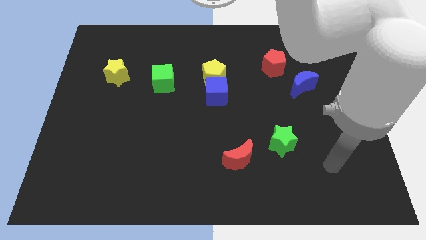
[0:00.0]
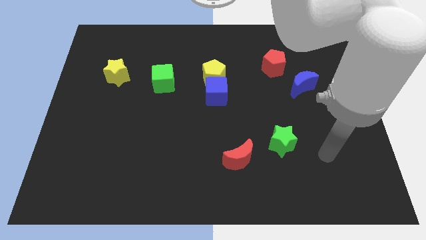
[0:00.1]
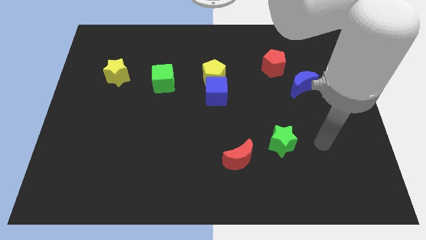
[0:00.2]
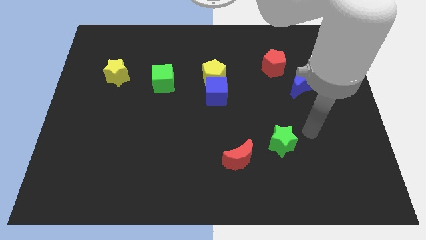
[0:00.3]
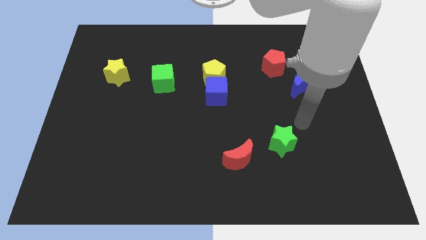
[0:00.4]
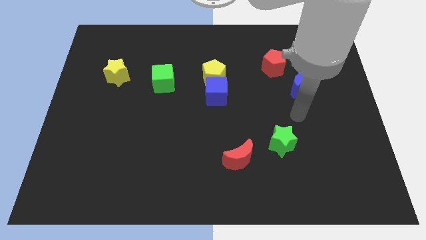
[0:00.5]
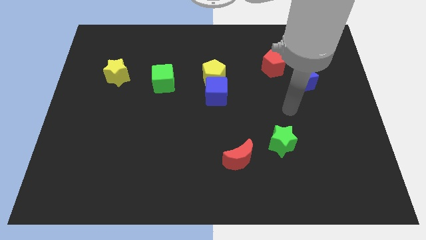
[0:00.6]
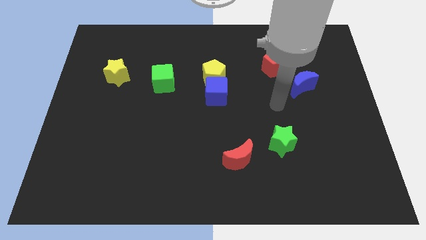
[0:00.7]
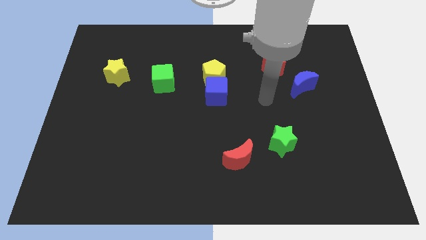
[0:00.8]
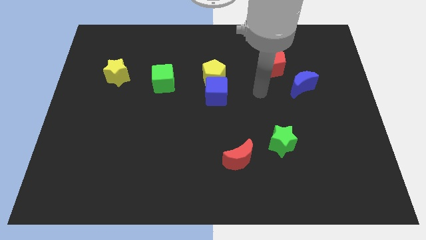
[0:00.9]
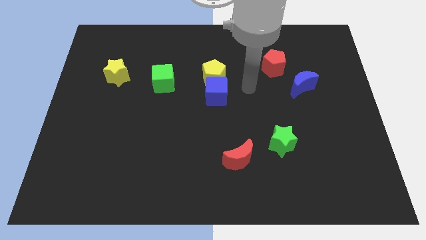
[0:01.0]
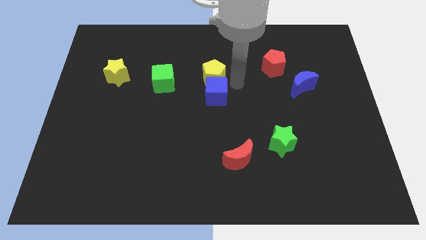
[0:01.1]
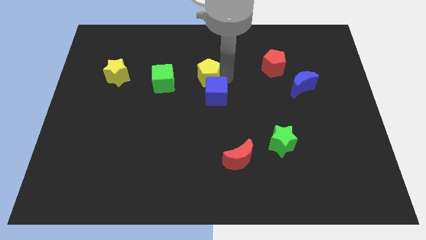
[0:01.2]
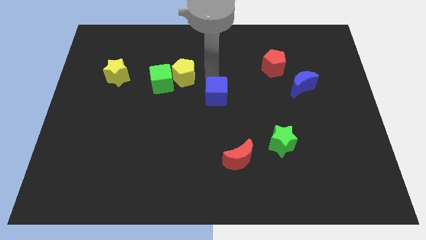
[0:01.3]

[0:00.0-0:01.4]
pull the blue cube apart from the yellow pentagon

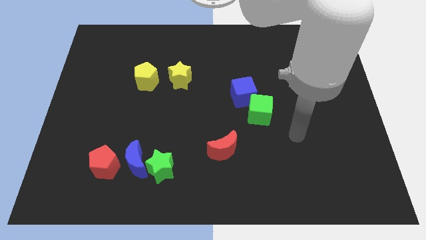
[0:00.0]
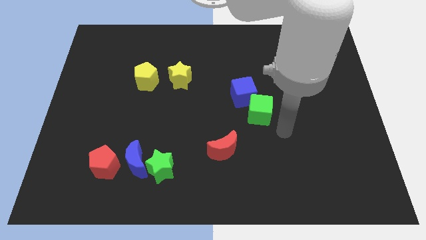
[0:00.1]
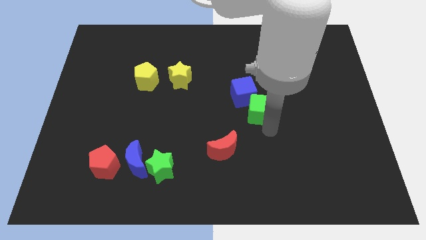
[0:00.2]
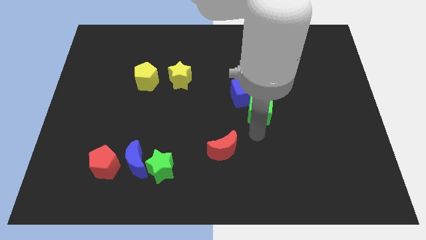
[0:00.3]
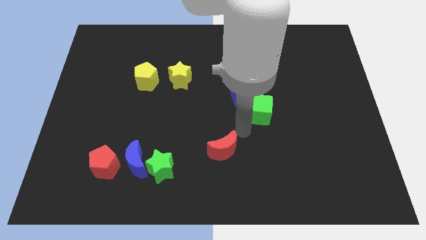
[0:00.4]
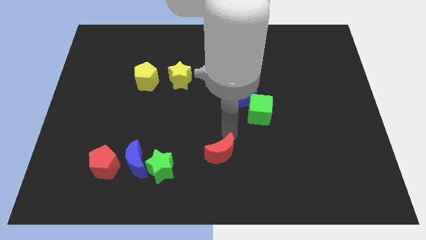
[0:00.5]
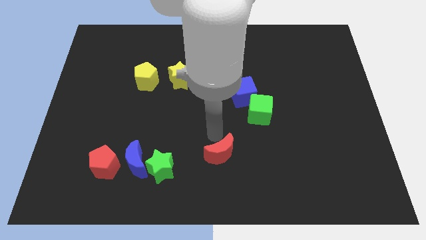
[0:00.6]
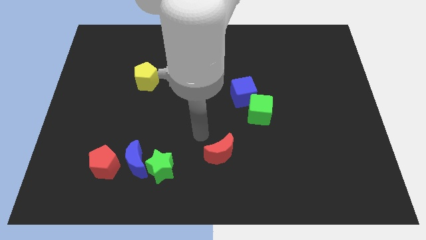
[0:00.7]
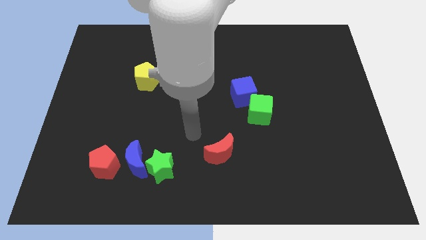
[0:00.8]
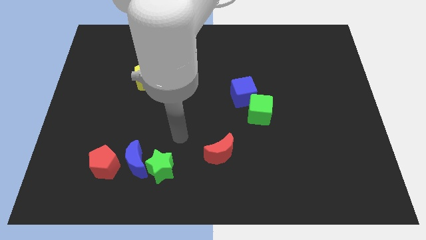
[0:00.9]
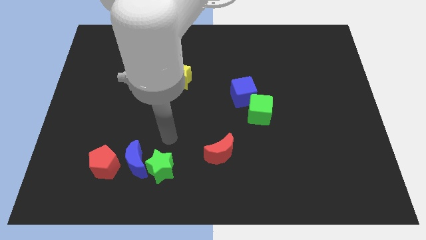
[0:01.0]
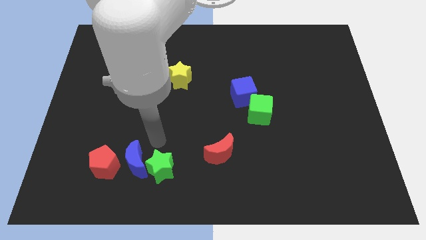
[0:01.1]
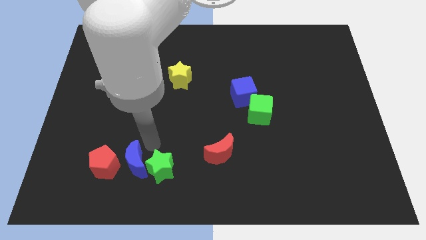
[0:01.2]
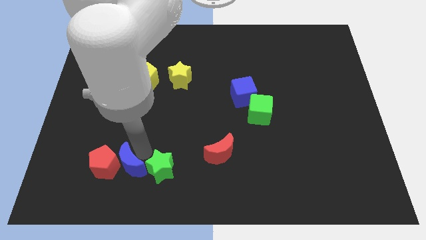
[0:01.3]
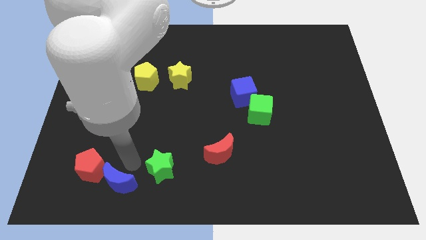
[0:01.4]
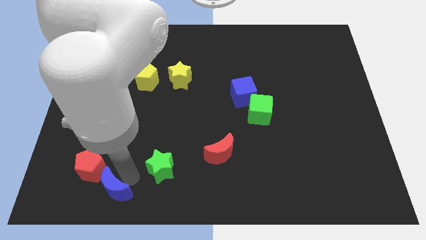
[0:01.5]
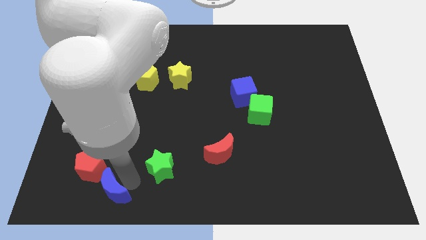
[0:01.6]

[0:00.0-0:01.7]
pull the green star apart from the blue moon

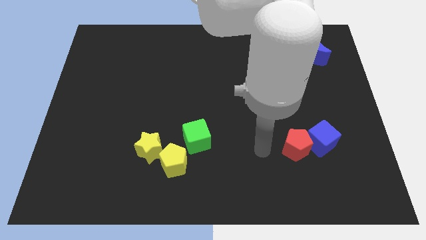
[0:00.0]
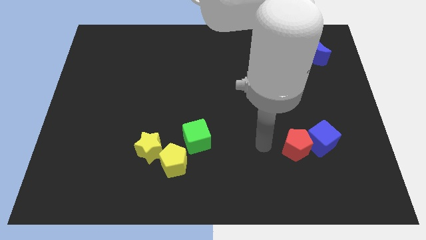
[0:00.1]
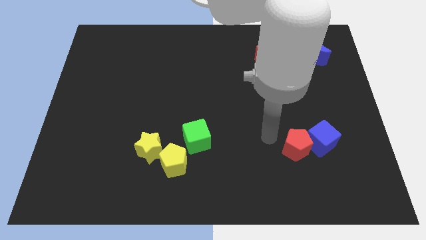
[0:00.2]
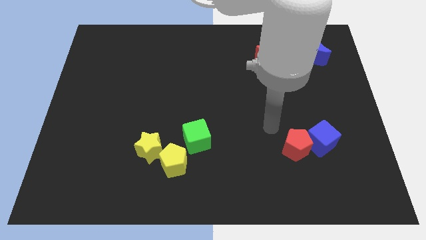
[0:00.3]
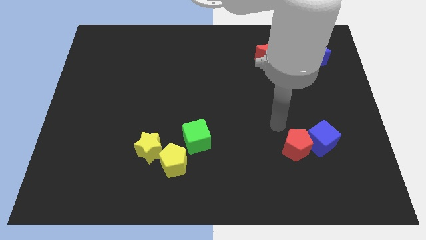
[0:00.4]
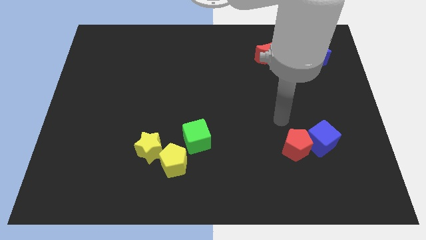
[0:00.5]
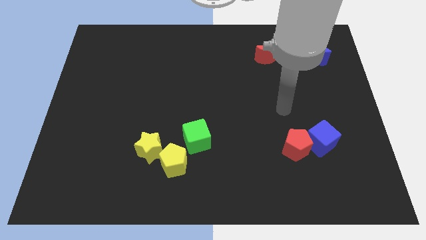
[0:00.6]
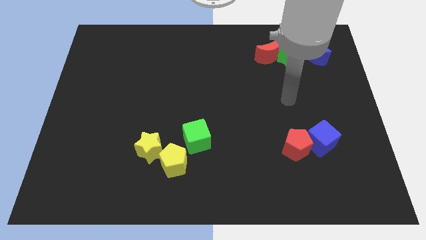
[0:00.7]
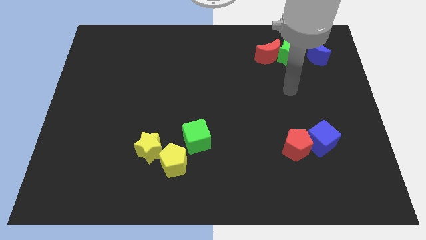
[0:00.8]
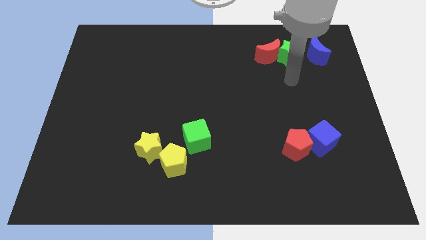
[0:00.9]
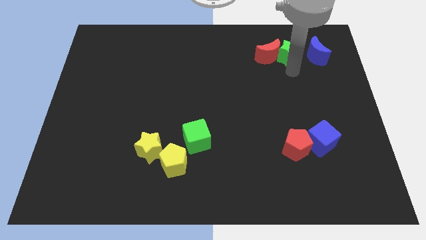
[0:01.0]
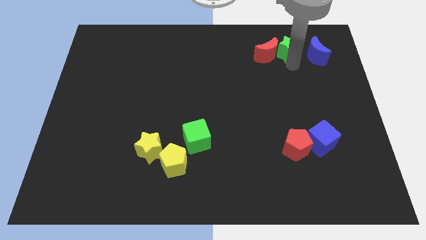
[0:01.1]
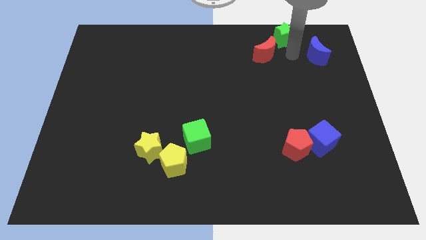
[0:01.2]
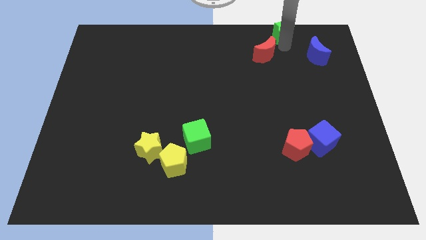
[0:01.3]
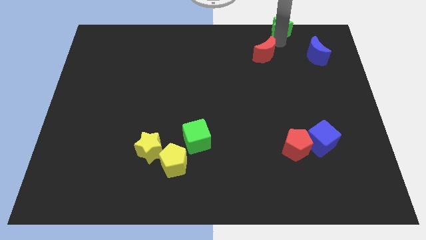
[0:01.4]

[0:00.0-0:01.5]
pull the red moon apart from the green star

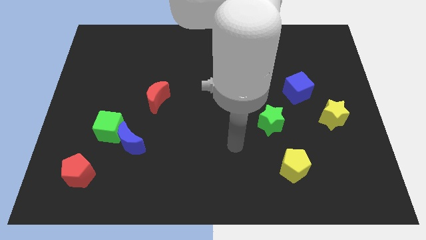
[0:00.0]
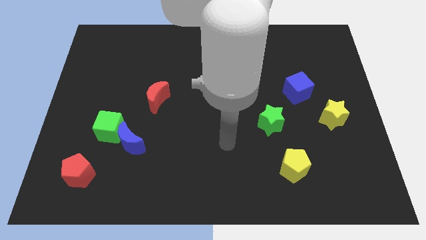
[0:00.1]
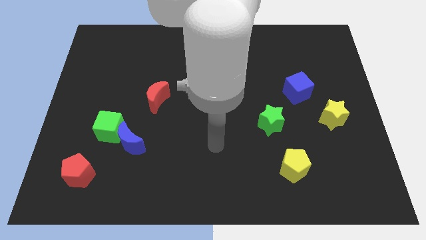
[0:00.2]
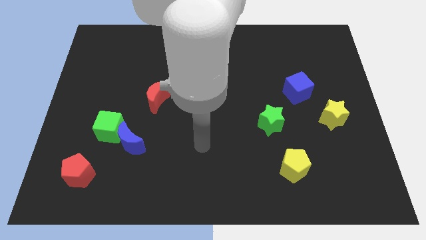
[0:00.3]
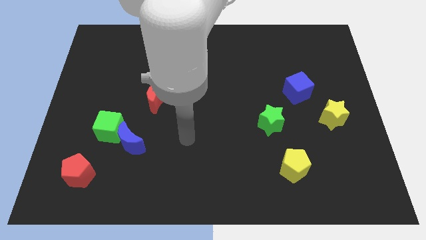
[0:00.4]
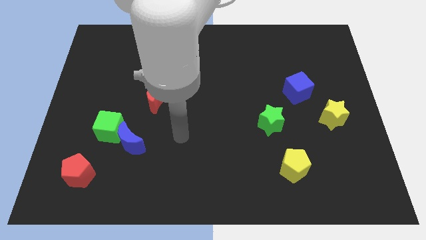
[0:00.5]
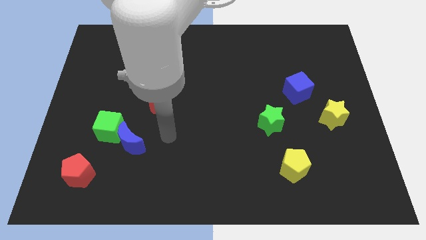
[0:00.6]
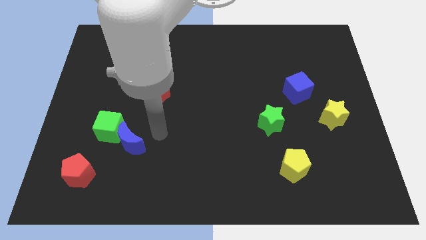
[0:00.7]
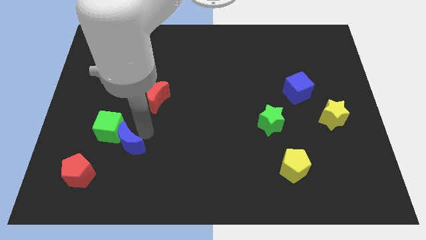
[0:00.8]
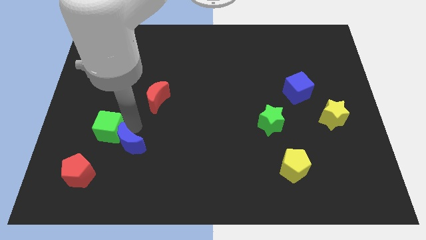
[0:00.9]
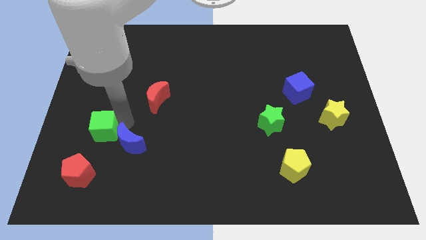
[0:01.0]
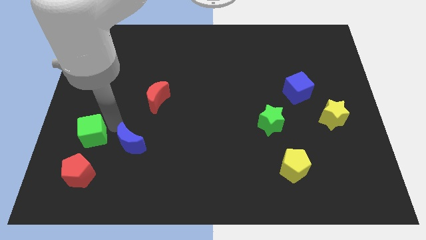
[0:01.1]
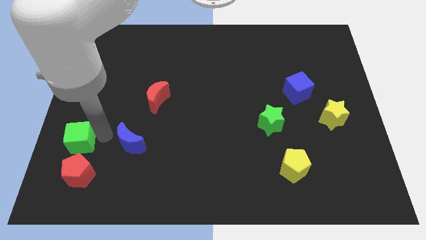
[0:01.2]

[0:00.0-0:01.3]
move the blue moon away from the green cube

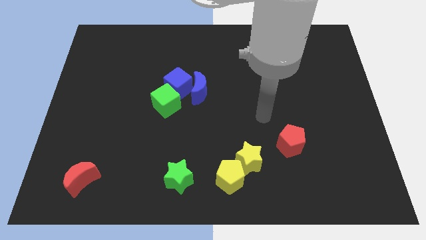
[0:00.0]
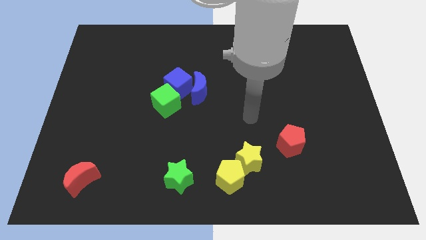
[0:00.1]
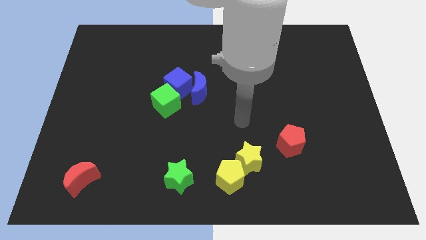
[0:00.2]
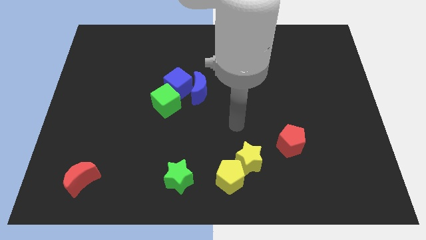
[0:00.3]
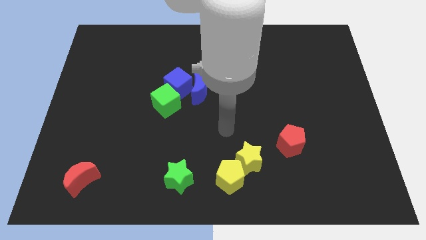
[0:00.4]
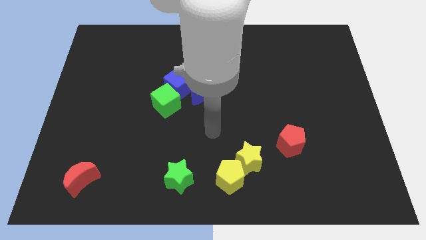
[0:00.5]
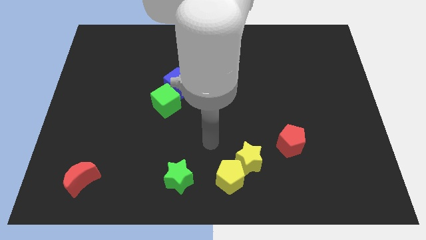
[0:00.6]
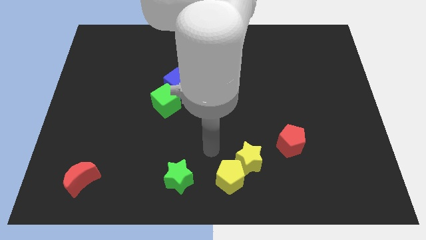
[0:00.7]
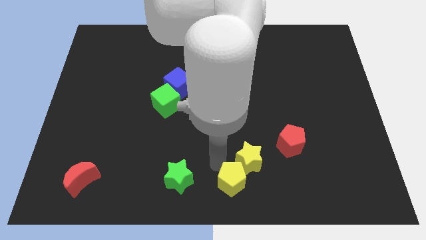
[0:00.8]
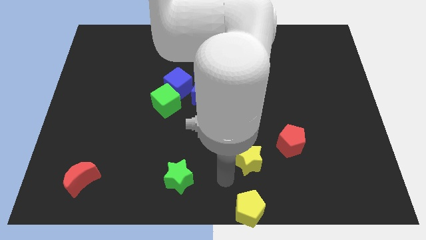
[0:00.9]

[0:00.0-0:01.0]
pull the yellow star apart from the yellow pentagon

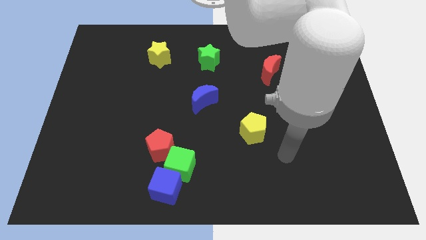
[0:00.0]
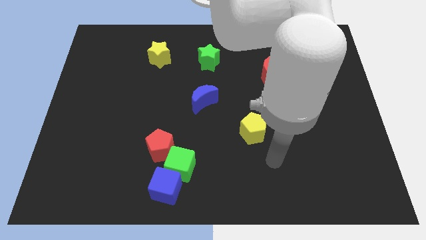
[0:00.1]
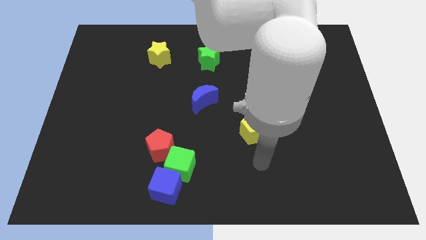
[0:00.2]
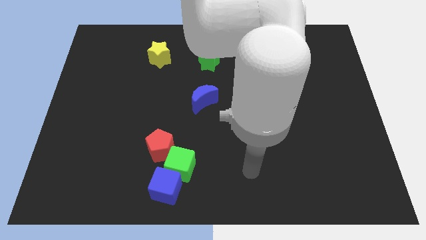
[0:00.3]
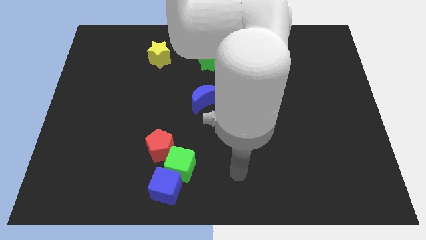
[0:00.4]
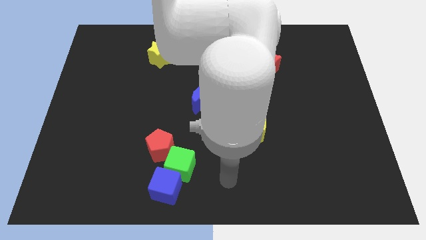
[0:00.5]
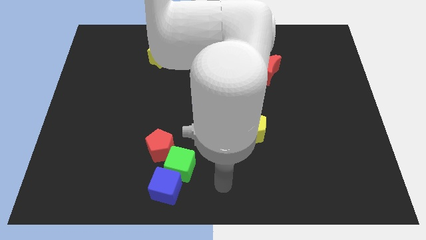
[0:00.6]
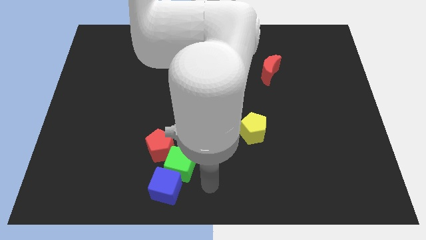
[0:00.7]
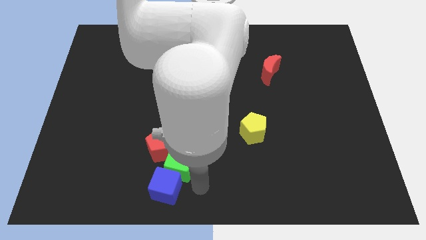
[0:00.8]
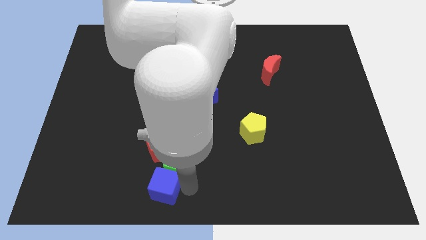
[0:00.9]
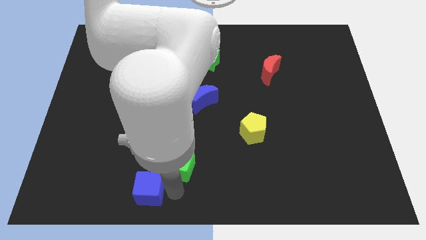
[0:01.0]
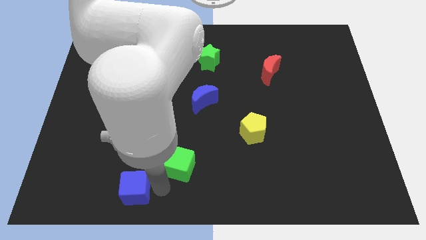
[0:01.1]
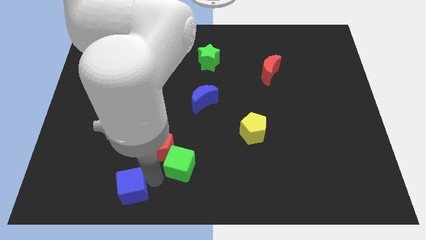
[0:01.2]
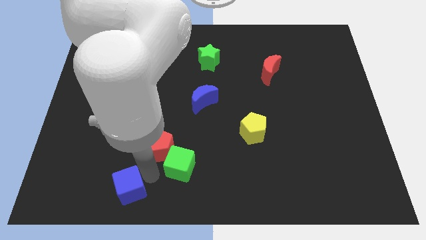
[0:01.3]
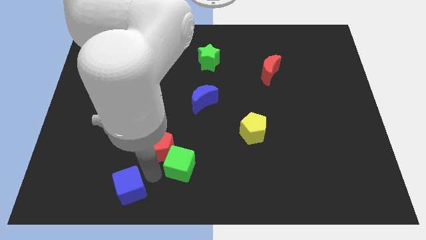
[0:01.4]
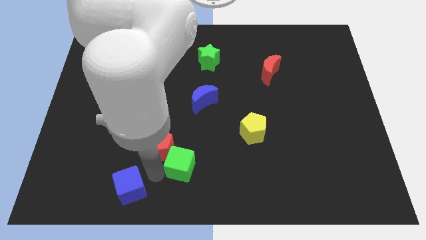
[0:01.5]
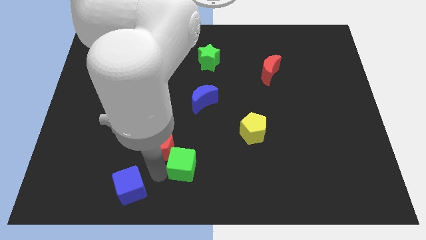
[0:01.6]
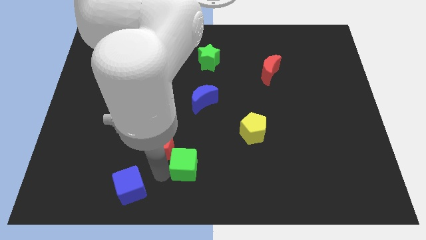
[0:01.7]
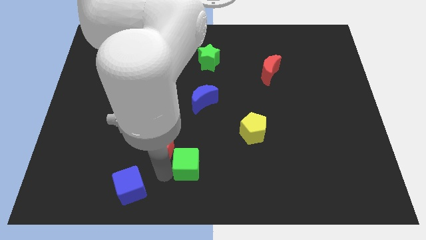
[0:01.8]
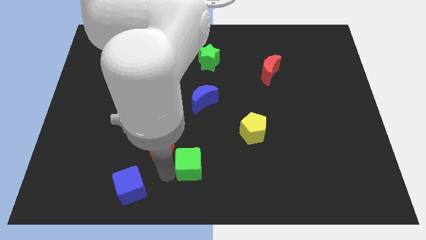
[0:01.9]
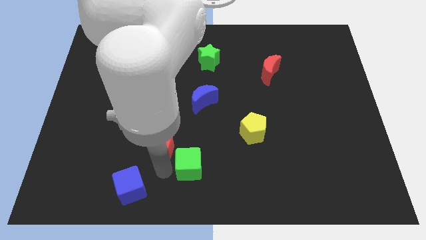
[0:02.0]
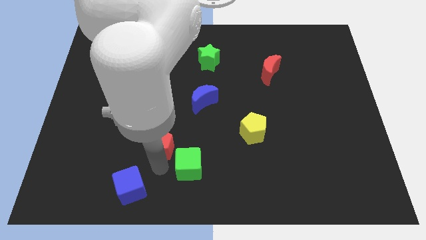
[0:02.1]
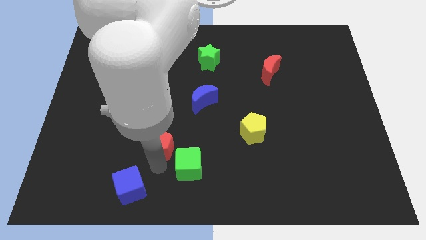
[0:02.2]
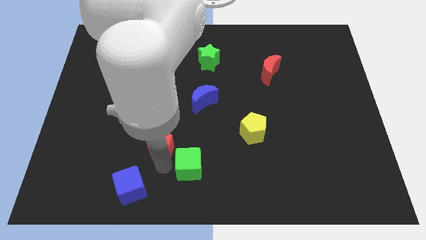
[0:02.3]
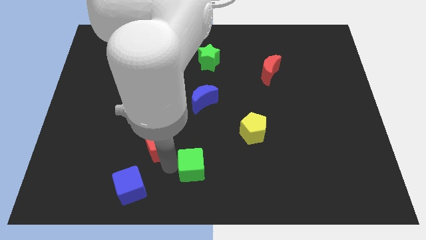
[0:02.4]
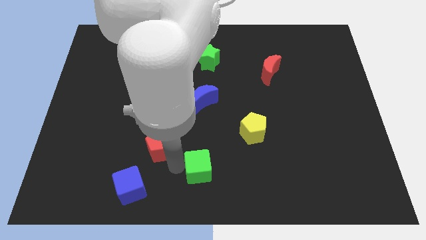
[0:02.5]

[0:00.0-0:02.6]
pull the green cube apart from the blue cube and red pentagon
